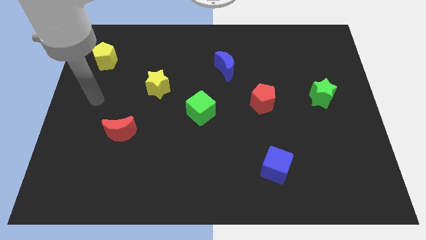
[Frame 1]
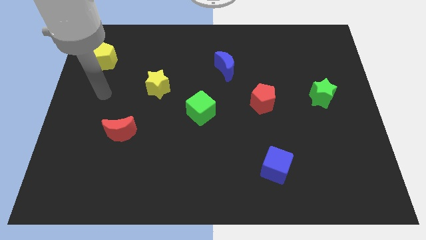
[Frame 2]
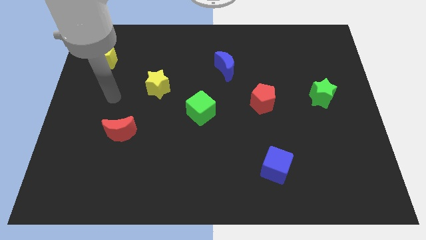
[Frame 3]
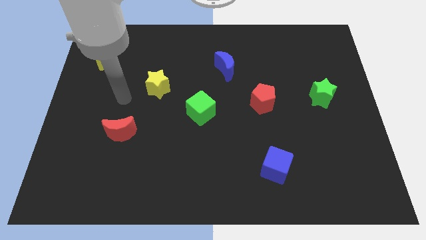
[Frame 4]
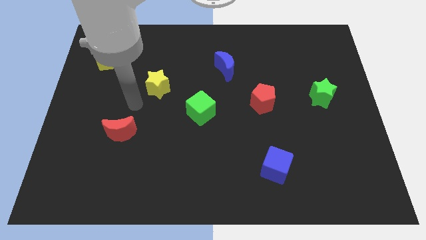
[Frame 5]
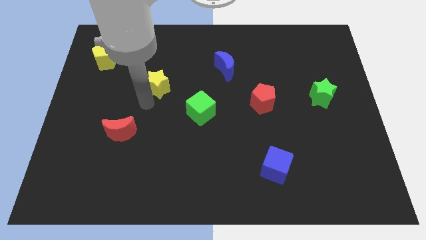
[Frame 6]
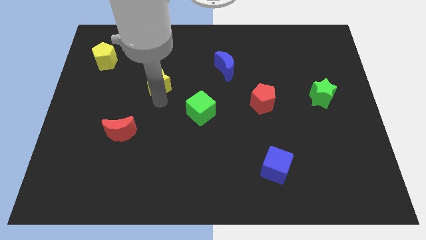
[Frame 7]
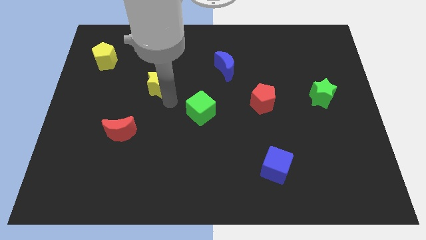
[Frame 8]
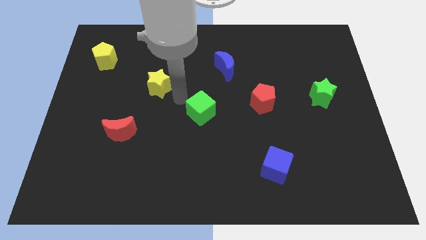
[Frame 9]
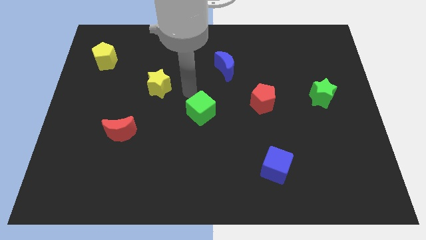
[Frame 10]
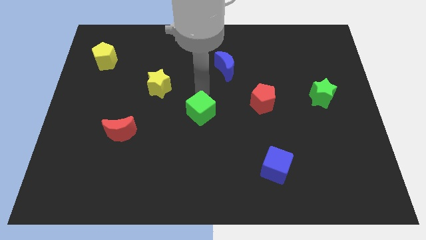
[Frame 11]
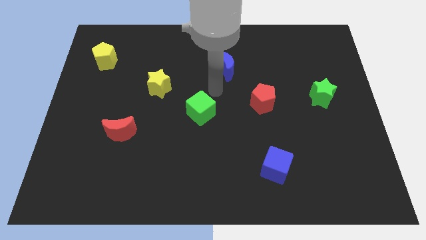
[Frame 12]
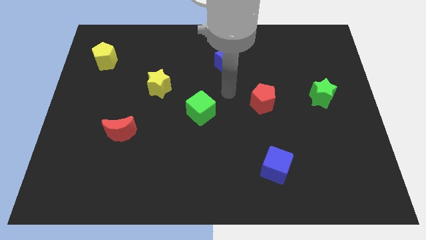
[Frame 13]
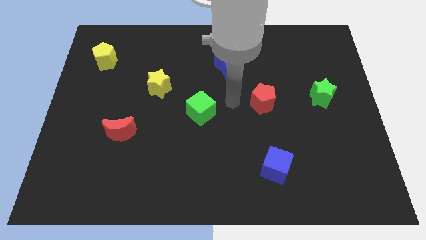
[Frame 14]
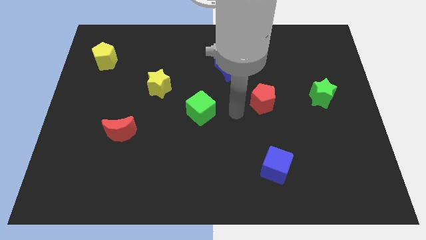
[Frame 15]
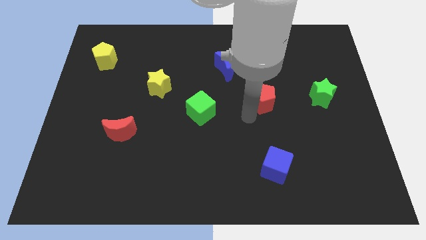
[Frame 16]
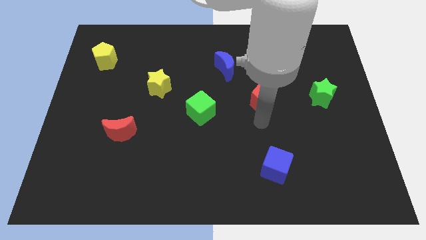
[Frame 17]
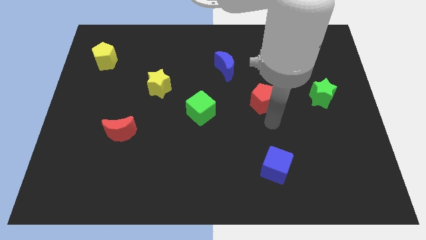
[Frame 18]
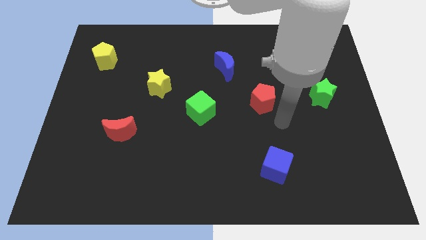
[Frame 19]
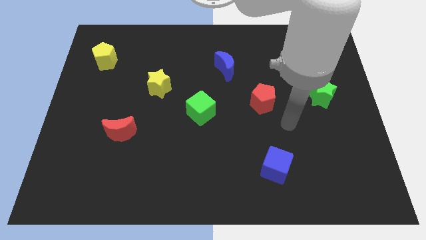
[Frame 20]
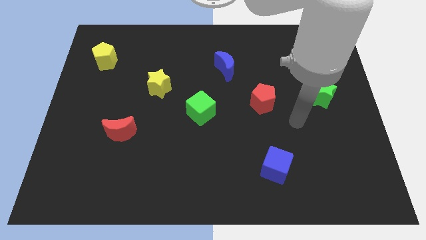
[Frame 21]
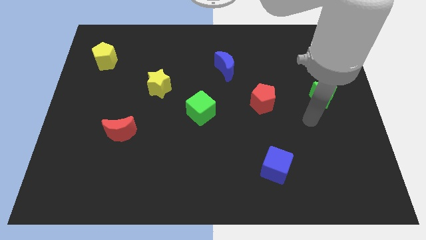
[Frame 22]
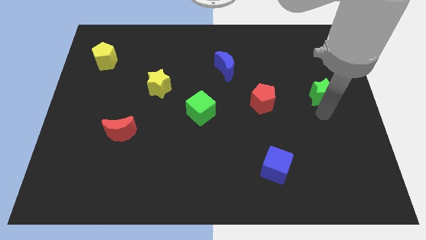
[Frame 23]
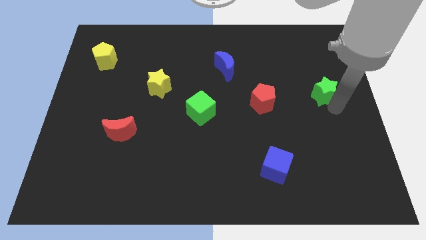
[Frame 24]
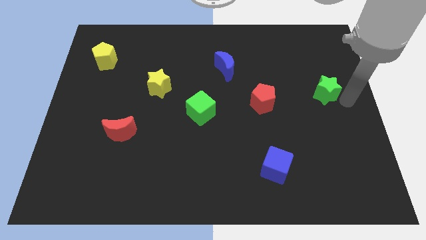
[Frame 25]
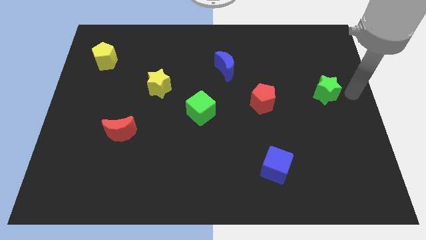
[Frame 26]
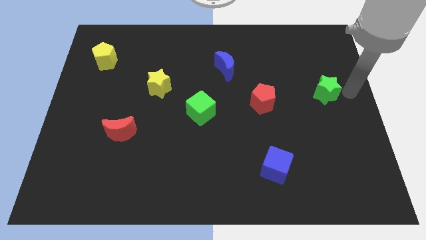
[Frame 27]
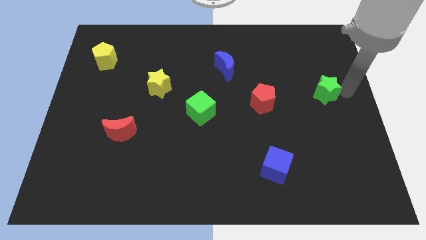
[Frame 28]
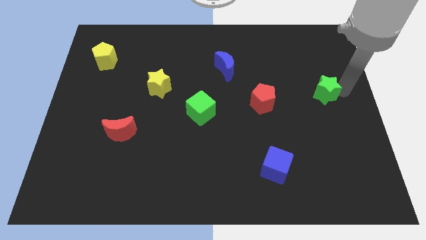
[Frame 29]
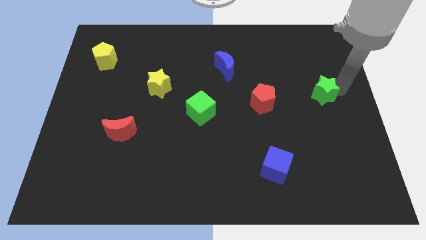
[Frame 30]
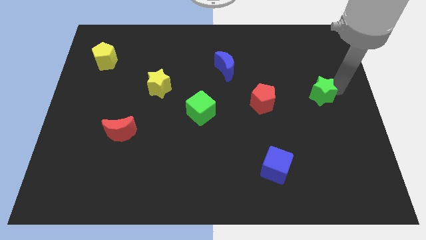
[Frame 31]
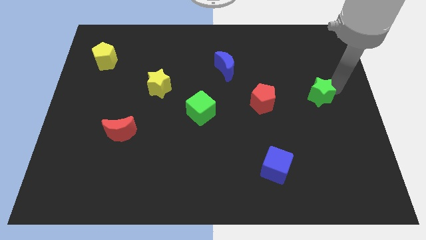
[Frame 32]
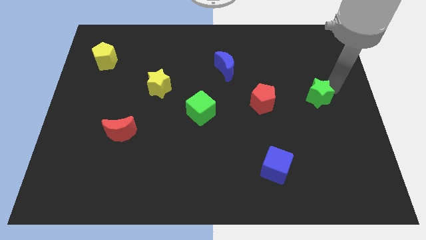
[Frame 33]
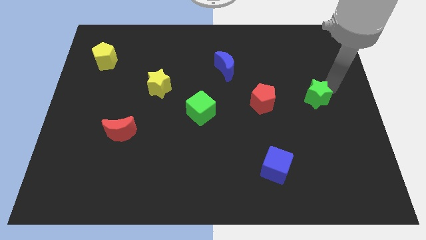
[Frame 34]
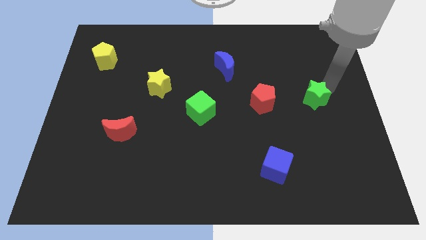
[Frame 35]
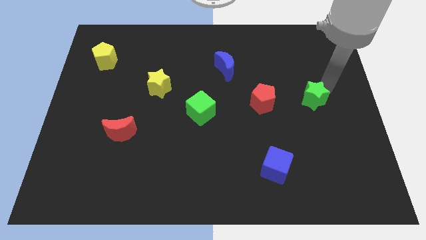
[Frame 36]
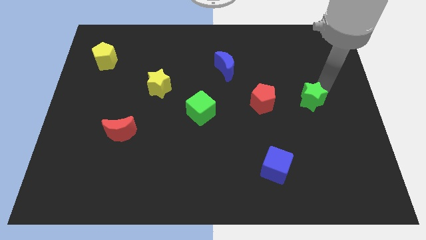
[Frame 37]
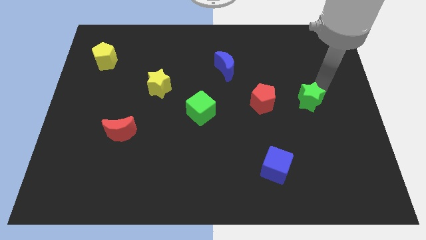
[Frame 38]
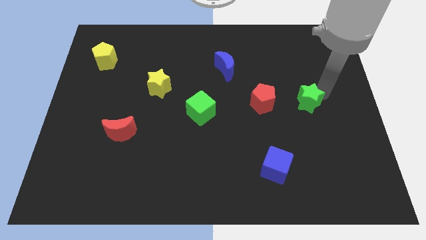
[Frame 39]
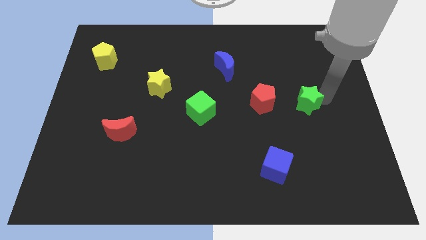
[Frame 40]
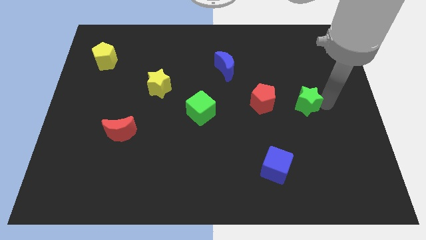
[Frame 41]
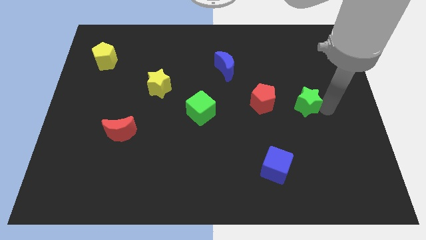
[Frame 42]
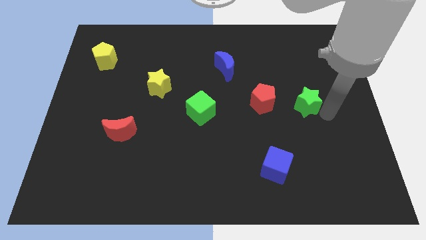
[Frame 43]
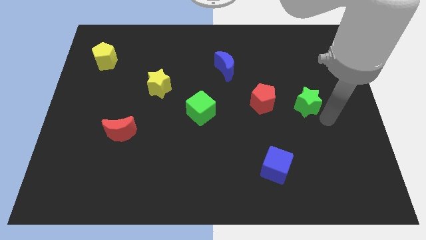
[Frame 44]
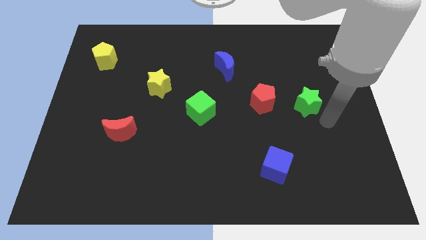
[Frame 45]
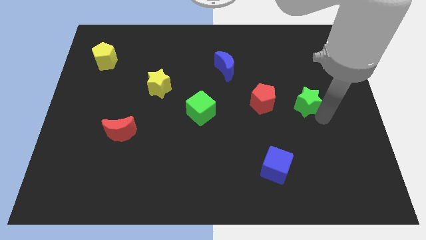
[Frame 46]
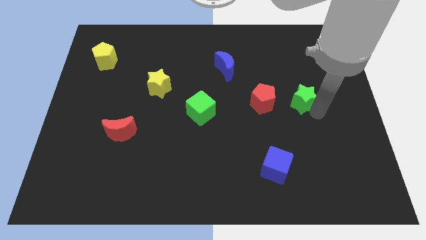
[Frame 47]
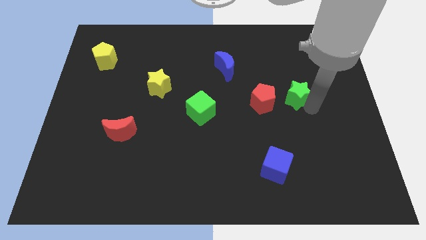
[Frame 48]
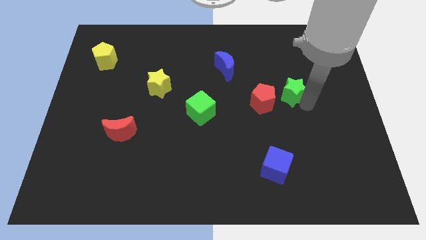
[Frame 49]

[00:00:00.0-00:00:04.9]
slightly move the green star to the left

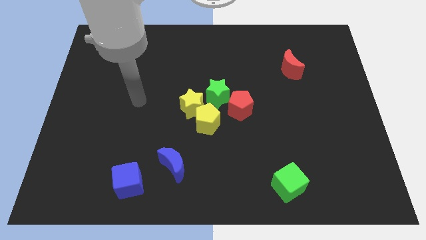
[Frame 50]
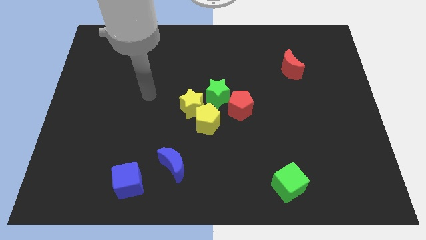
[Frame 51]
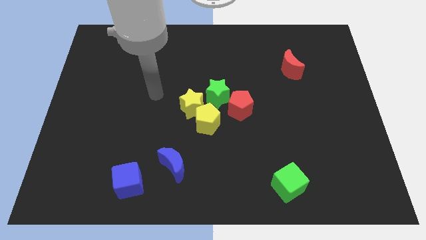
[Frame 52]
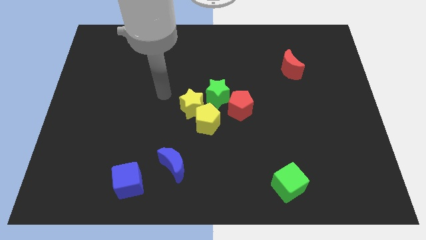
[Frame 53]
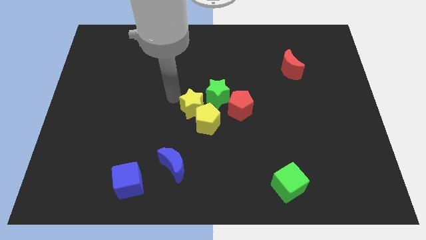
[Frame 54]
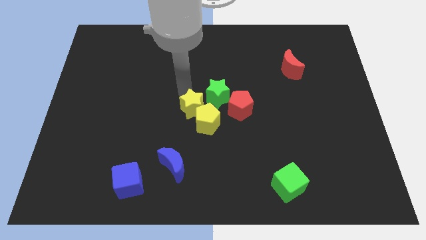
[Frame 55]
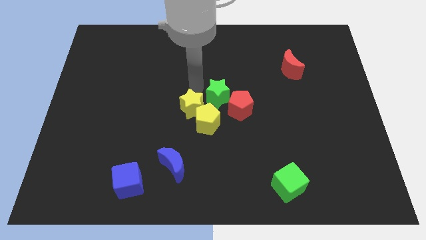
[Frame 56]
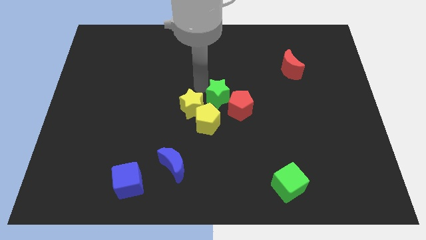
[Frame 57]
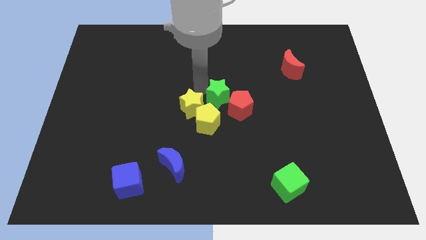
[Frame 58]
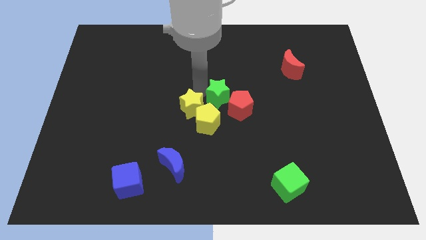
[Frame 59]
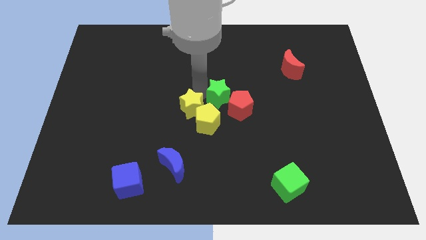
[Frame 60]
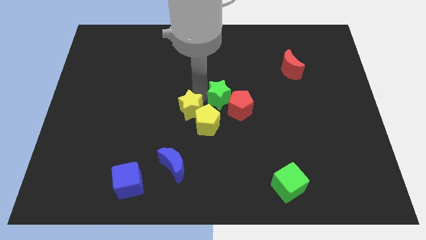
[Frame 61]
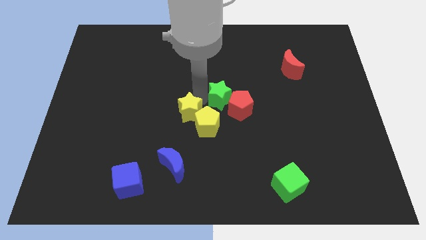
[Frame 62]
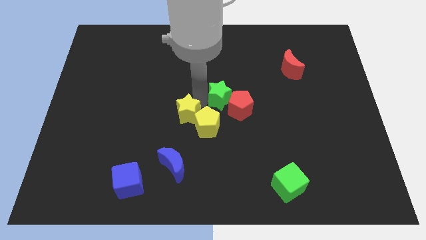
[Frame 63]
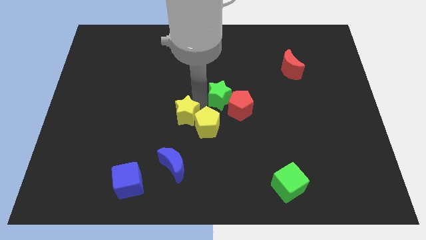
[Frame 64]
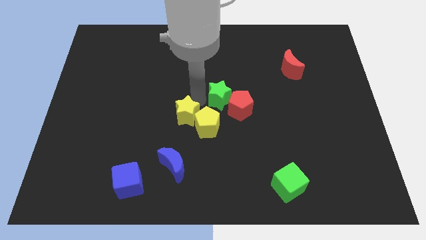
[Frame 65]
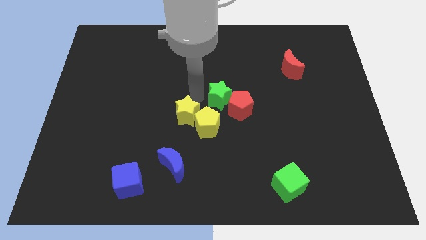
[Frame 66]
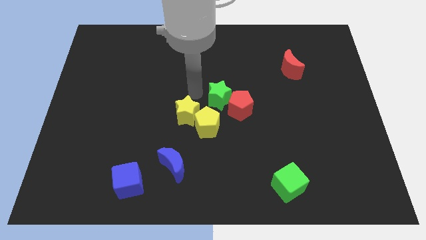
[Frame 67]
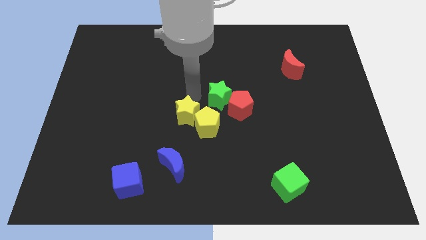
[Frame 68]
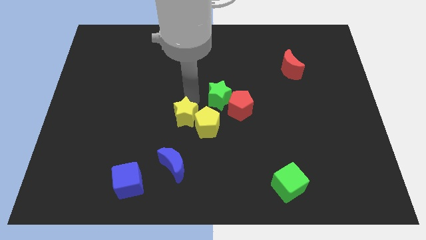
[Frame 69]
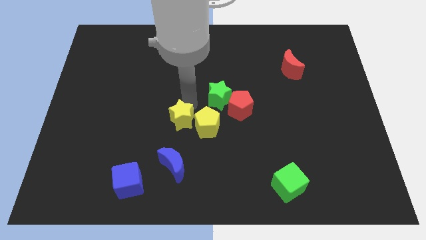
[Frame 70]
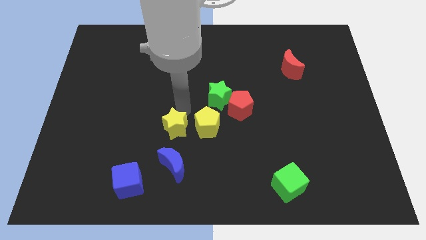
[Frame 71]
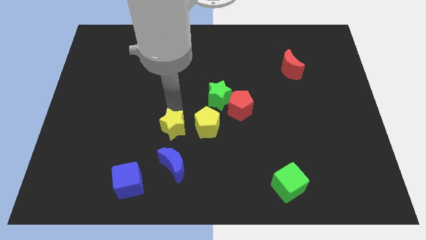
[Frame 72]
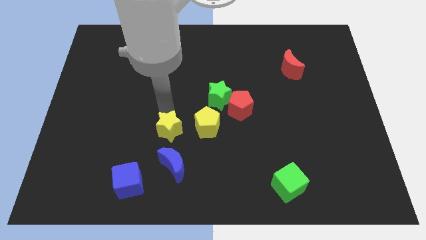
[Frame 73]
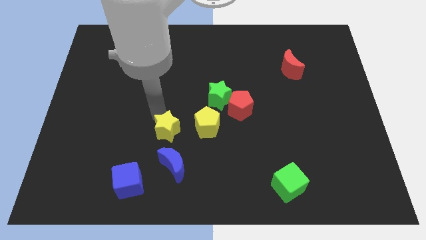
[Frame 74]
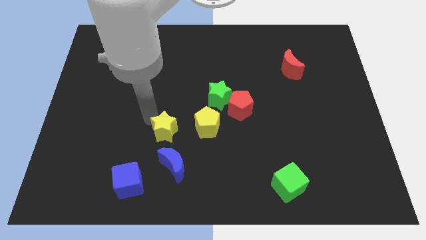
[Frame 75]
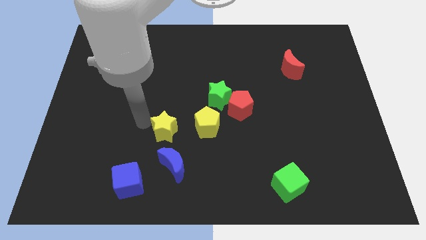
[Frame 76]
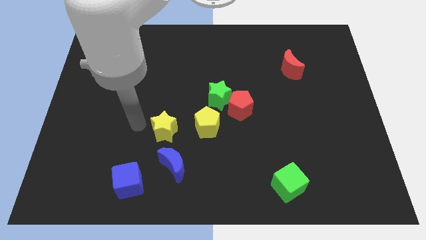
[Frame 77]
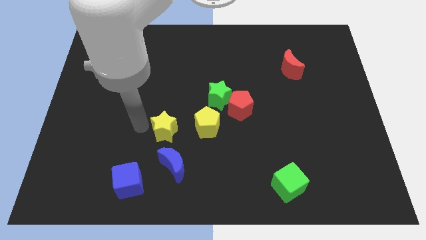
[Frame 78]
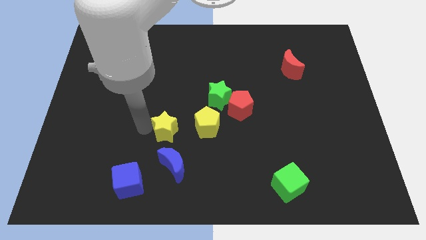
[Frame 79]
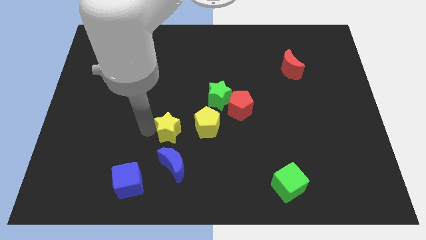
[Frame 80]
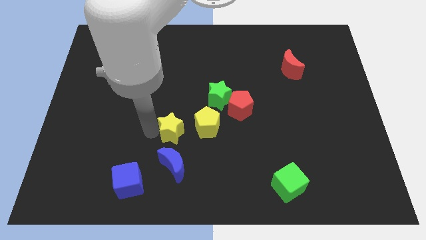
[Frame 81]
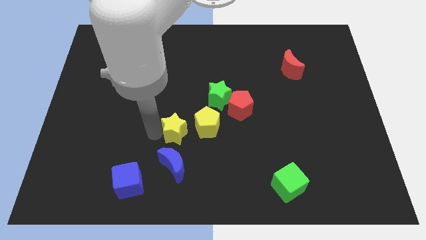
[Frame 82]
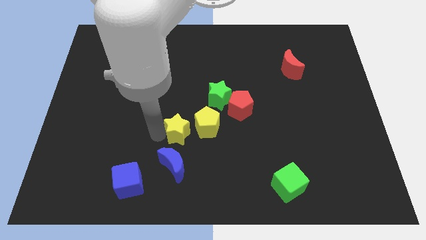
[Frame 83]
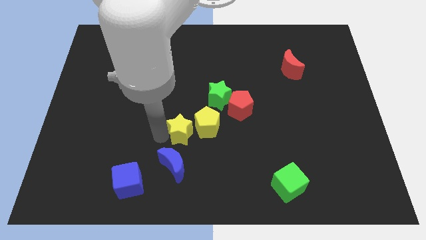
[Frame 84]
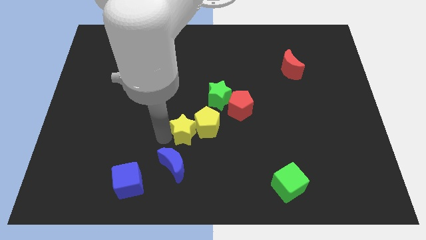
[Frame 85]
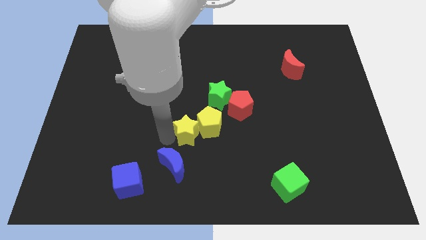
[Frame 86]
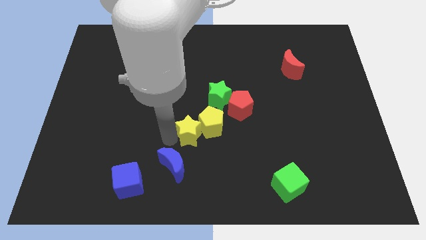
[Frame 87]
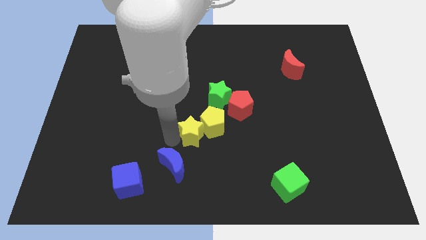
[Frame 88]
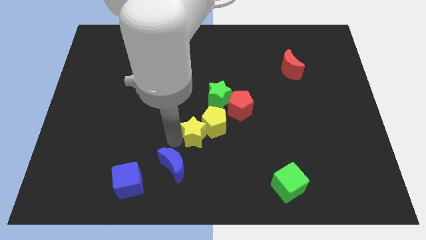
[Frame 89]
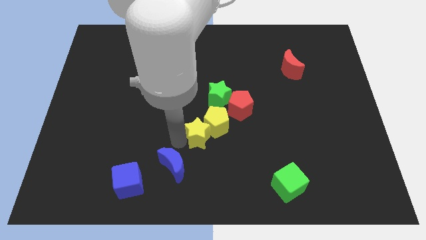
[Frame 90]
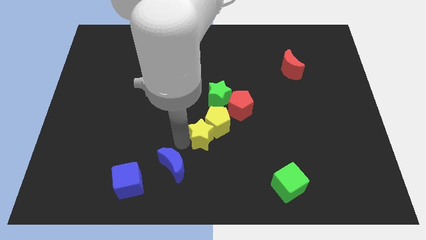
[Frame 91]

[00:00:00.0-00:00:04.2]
push the yellow star a little downwards and right diagonally
